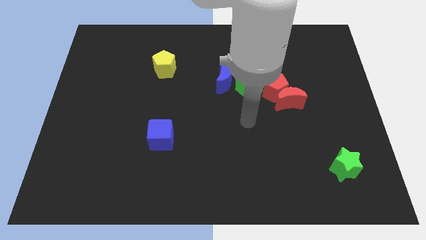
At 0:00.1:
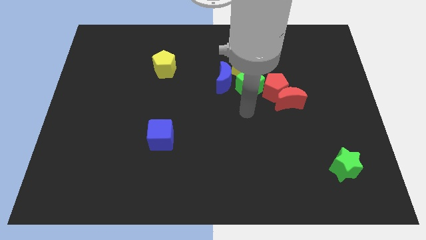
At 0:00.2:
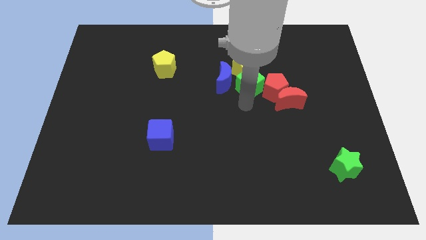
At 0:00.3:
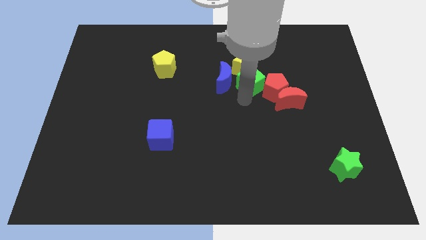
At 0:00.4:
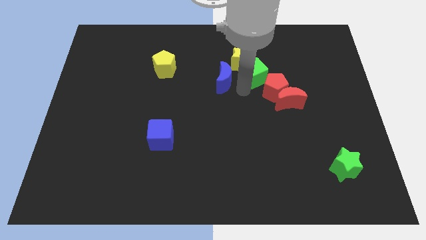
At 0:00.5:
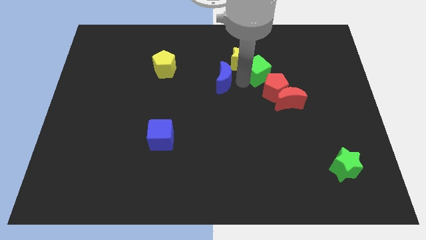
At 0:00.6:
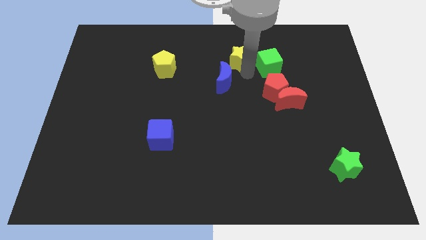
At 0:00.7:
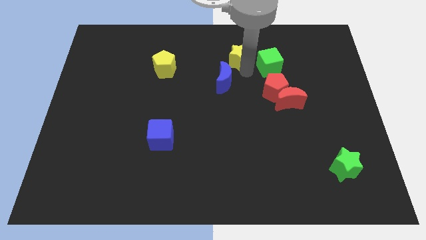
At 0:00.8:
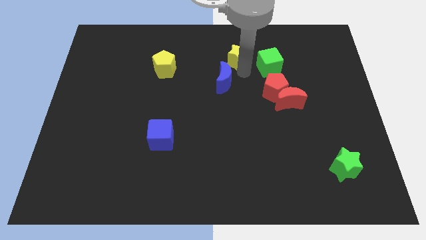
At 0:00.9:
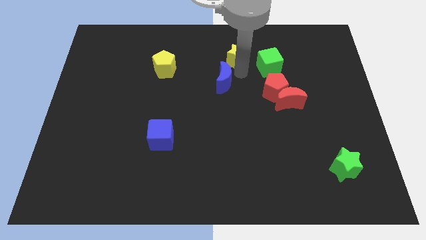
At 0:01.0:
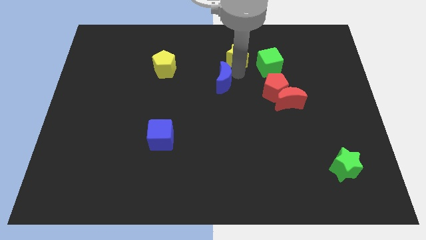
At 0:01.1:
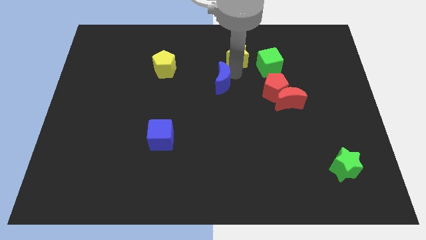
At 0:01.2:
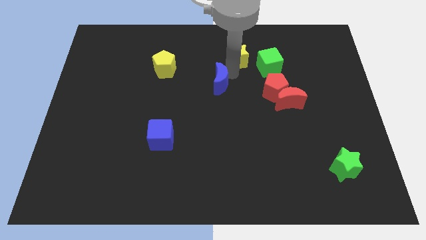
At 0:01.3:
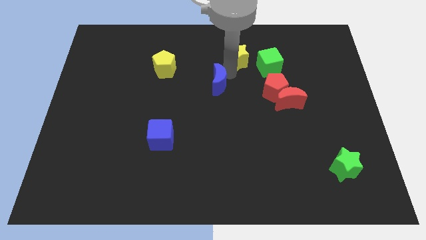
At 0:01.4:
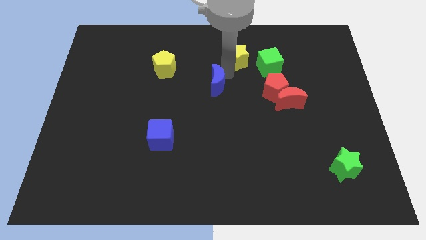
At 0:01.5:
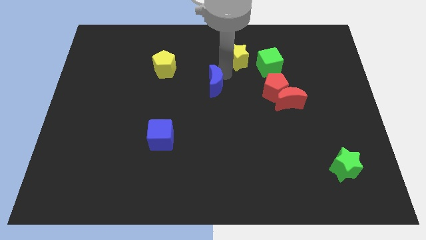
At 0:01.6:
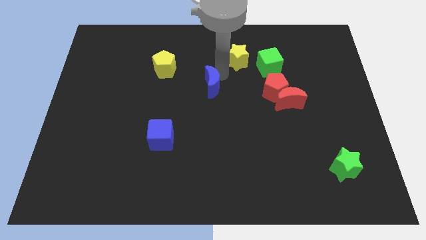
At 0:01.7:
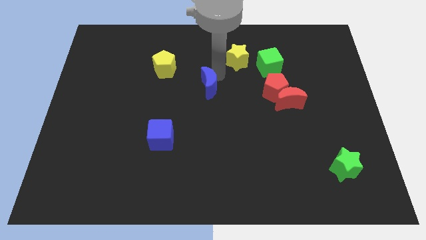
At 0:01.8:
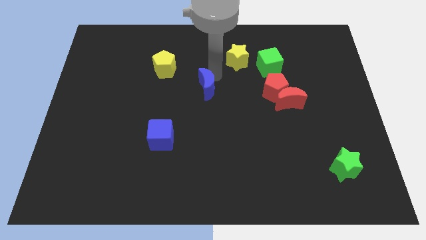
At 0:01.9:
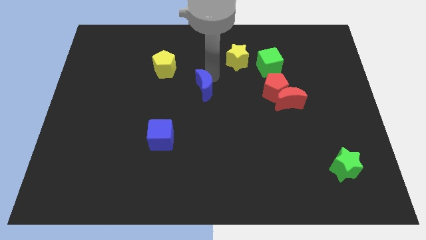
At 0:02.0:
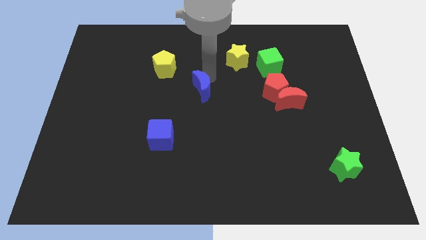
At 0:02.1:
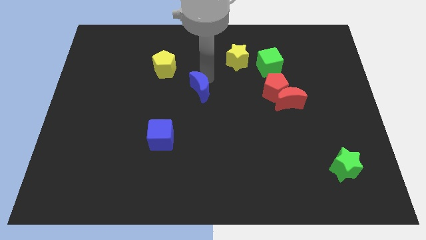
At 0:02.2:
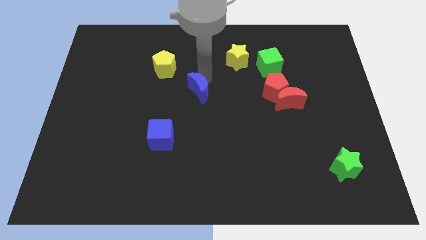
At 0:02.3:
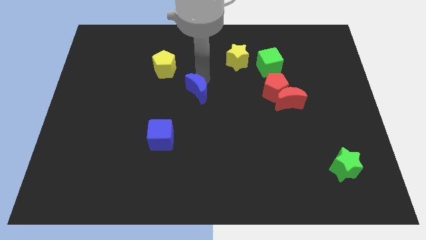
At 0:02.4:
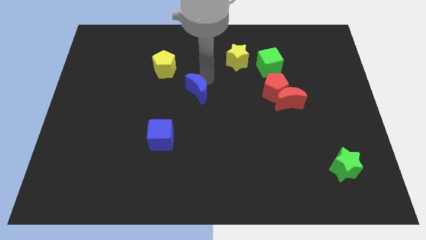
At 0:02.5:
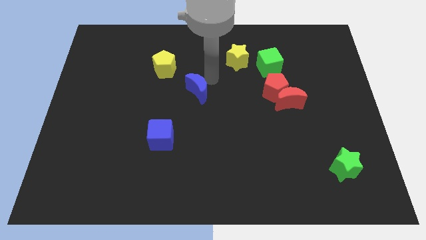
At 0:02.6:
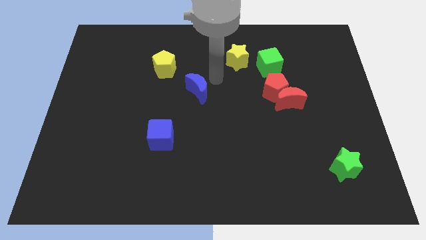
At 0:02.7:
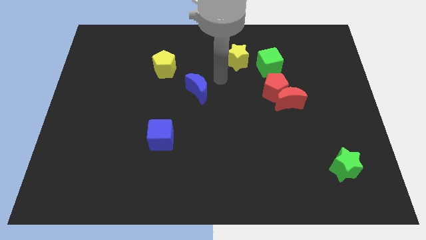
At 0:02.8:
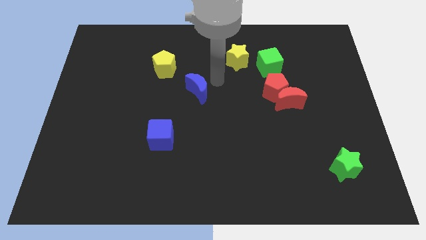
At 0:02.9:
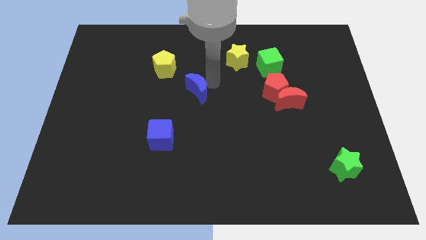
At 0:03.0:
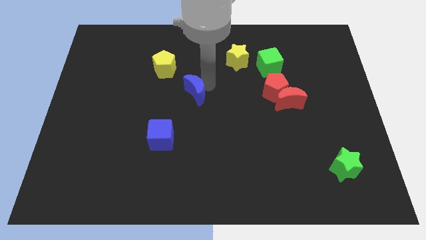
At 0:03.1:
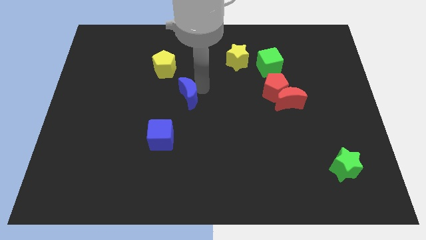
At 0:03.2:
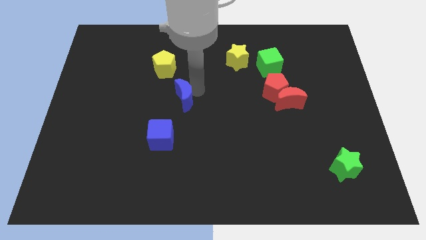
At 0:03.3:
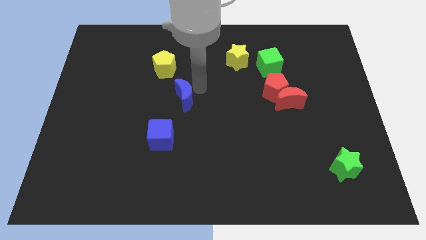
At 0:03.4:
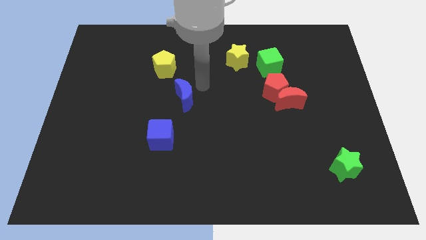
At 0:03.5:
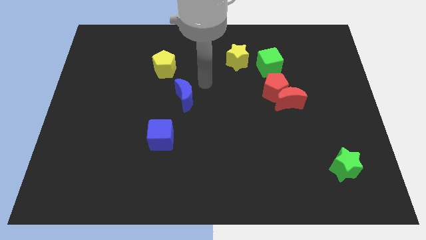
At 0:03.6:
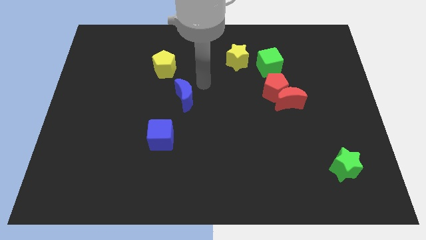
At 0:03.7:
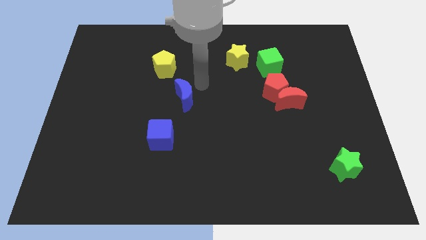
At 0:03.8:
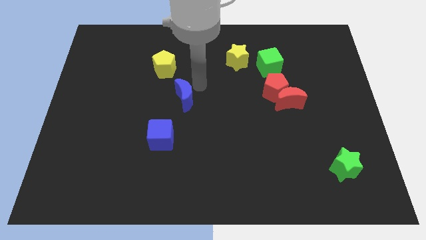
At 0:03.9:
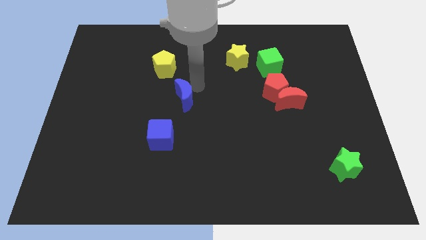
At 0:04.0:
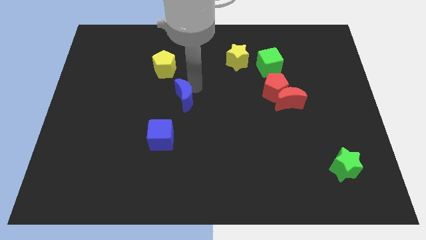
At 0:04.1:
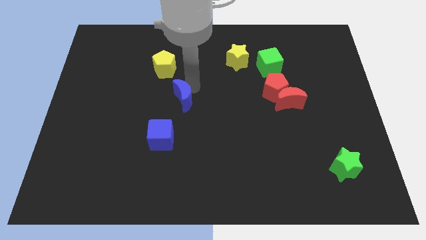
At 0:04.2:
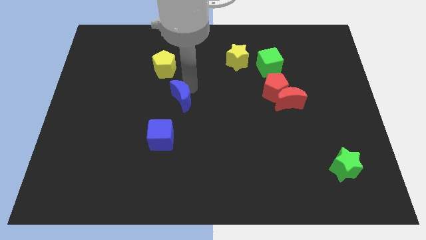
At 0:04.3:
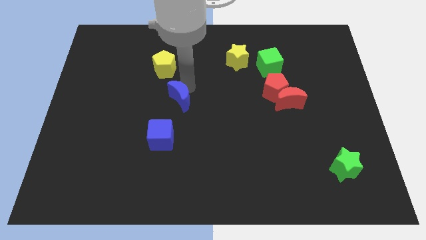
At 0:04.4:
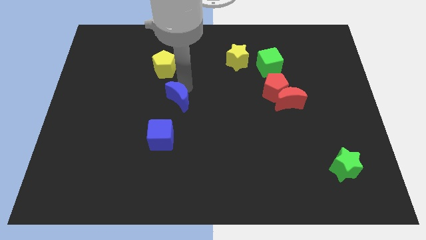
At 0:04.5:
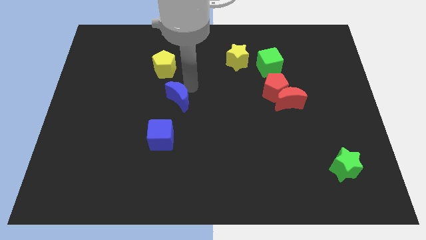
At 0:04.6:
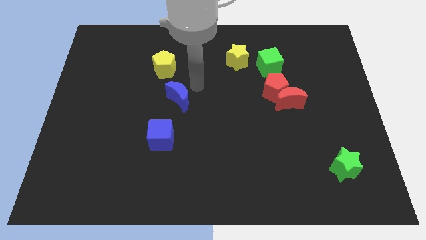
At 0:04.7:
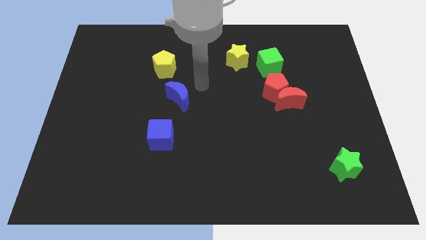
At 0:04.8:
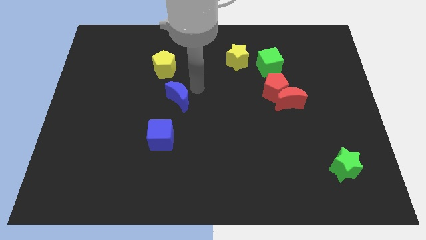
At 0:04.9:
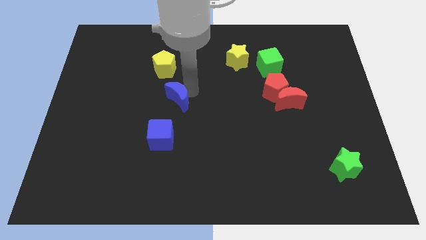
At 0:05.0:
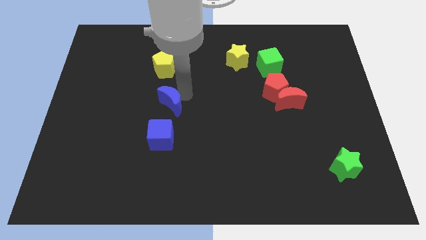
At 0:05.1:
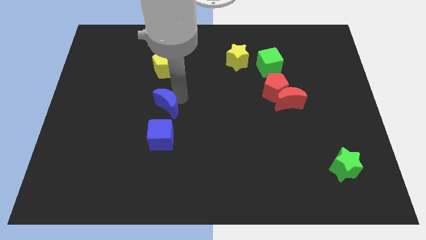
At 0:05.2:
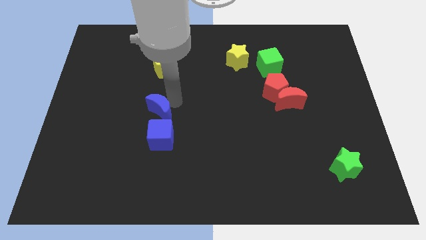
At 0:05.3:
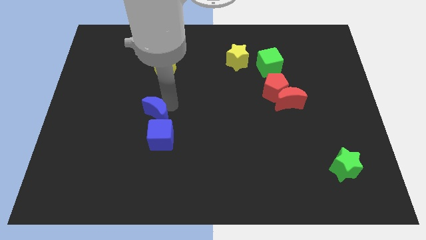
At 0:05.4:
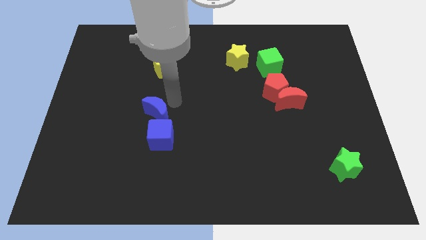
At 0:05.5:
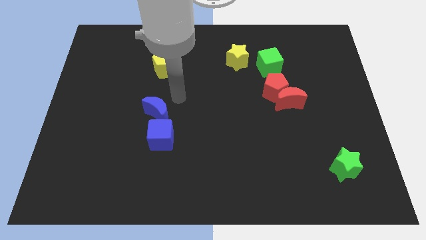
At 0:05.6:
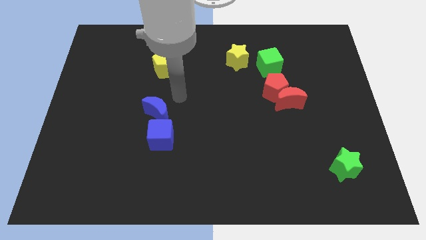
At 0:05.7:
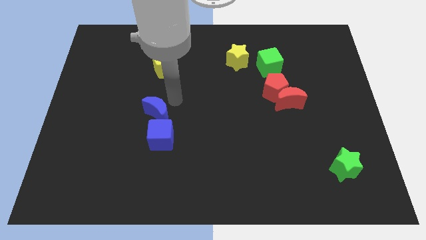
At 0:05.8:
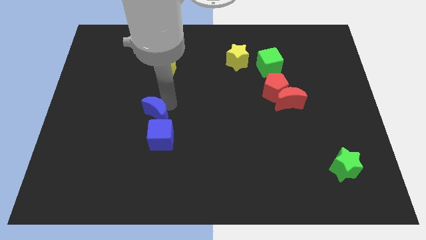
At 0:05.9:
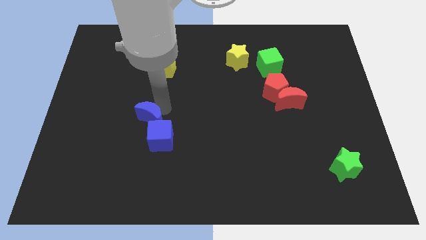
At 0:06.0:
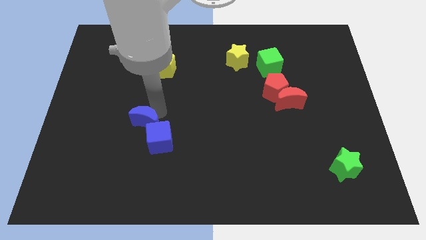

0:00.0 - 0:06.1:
move the blue moon down and then left

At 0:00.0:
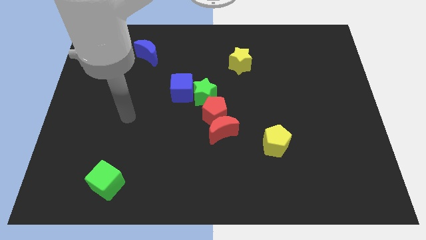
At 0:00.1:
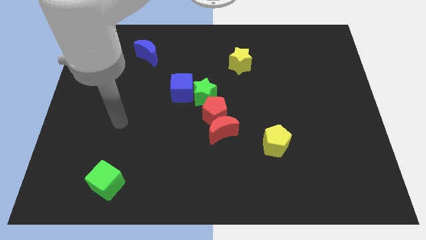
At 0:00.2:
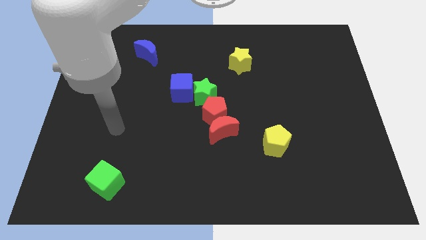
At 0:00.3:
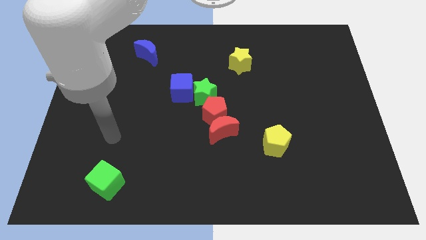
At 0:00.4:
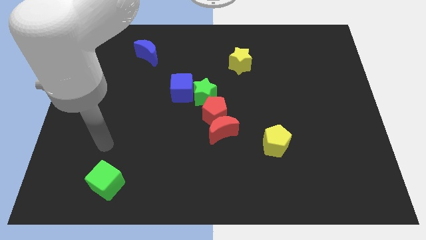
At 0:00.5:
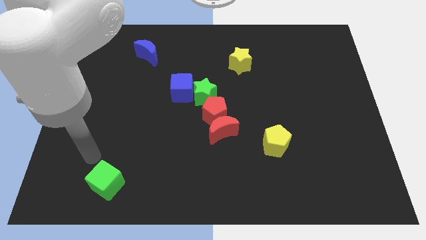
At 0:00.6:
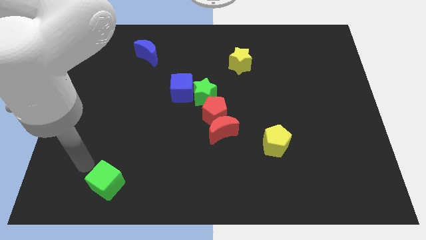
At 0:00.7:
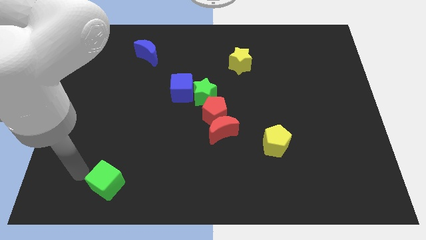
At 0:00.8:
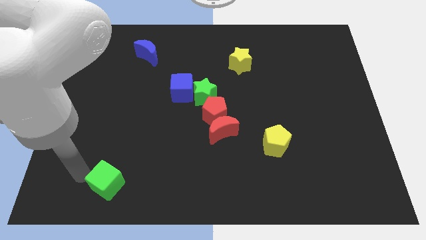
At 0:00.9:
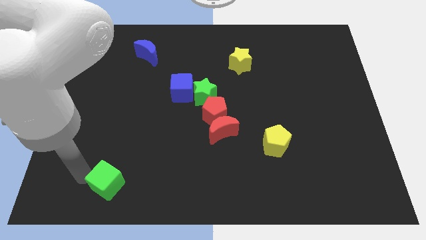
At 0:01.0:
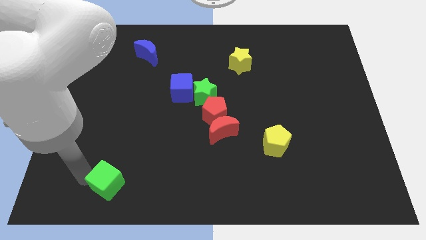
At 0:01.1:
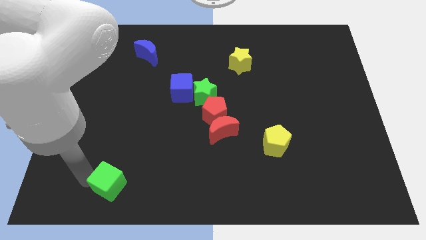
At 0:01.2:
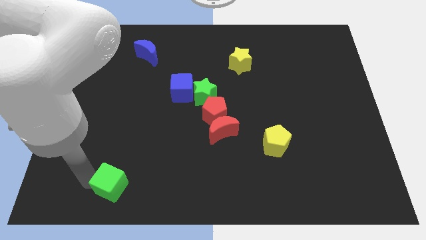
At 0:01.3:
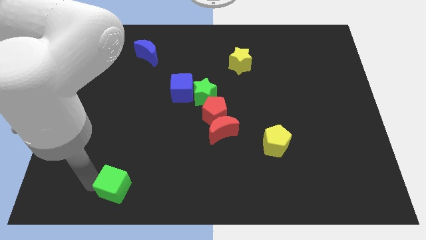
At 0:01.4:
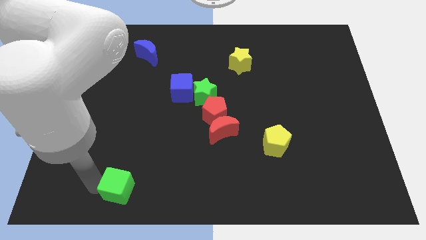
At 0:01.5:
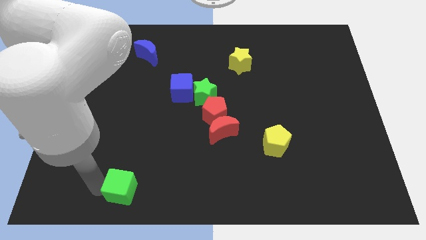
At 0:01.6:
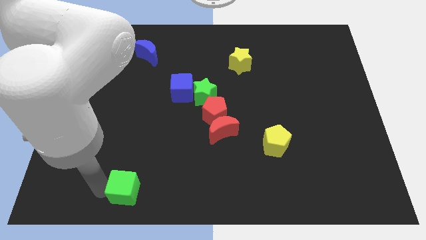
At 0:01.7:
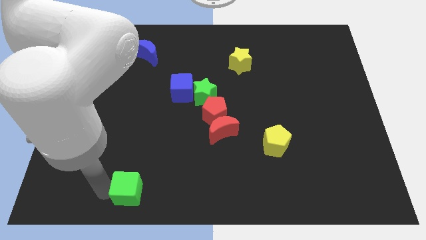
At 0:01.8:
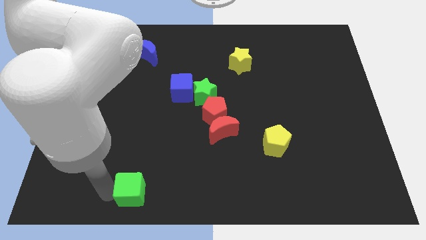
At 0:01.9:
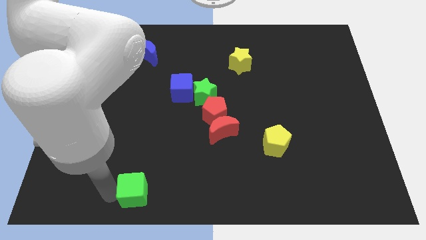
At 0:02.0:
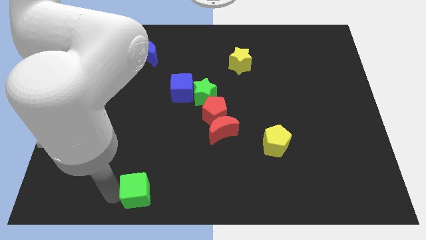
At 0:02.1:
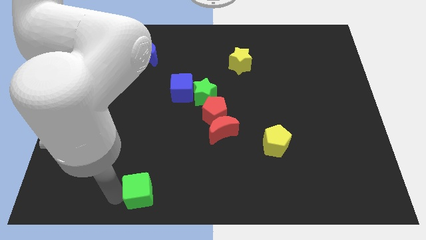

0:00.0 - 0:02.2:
slightly slide the green cube right
